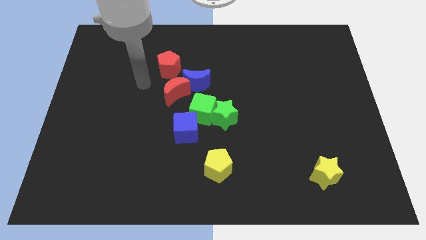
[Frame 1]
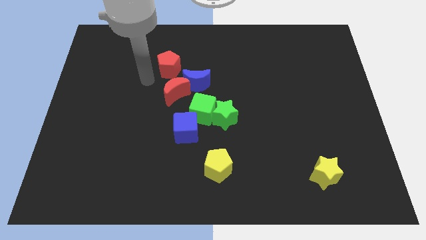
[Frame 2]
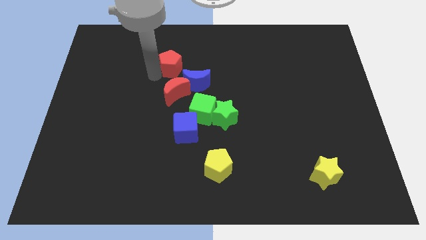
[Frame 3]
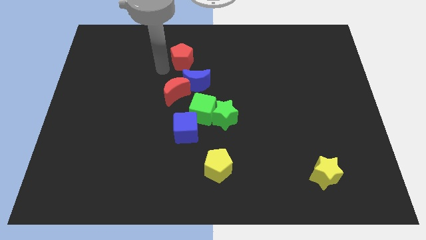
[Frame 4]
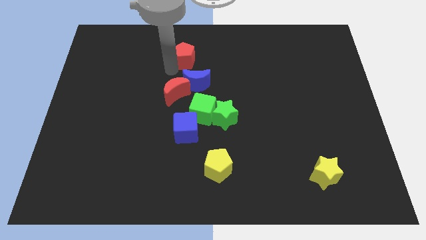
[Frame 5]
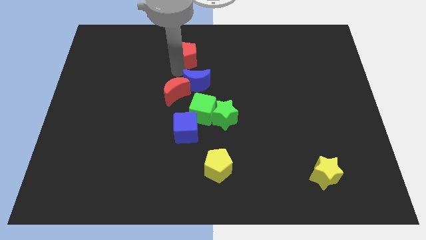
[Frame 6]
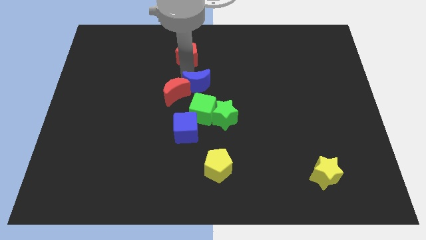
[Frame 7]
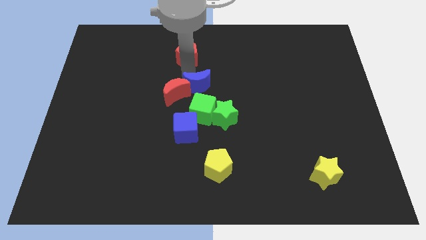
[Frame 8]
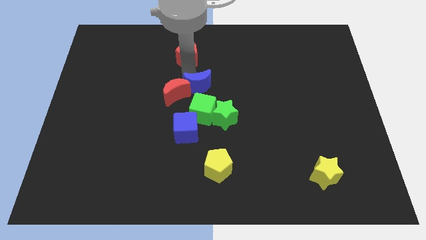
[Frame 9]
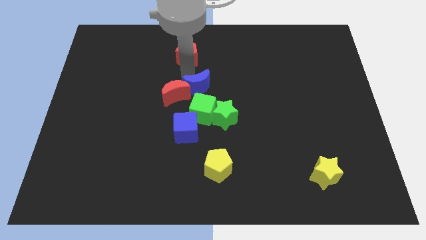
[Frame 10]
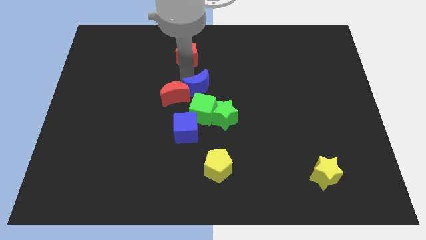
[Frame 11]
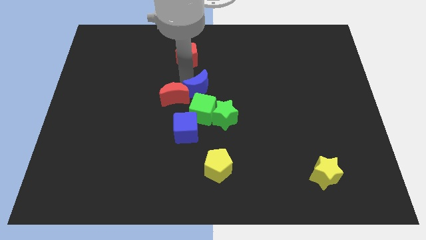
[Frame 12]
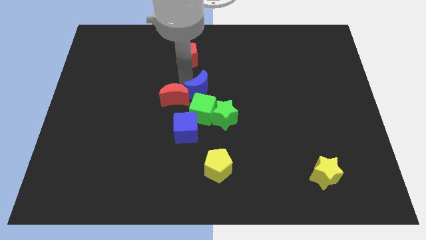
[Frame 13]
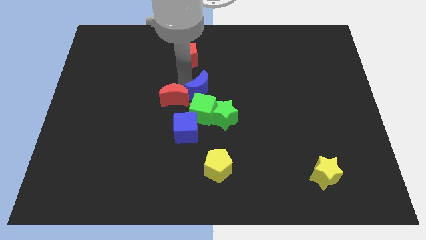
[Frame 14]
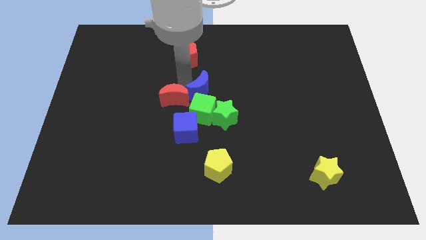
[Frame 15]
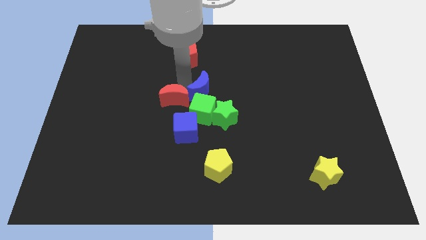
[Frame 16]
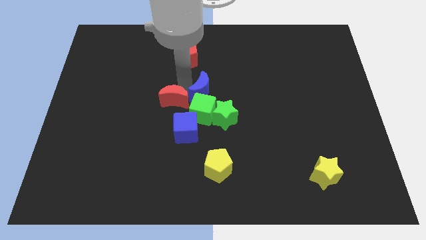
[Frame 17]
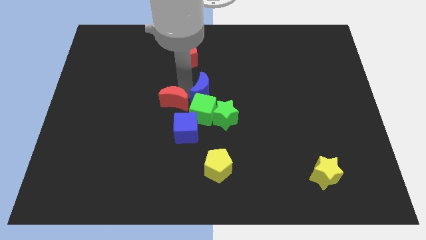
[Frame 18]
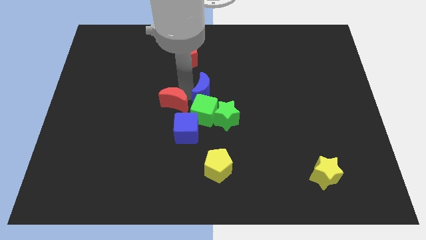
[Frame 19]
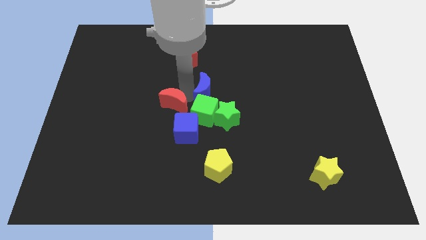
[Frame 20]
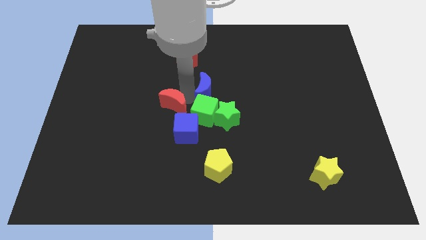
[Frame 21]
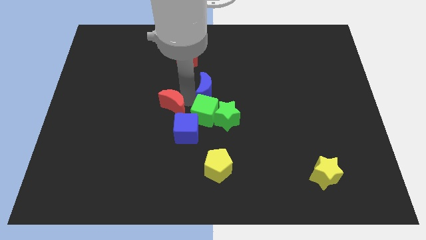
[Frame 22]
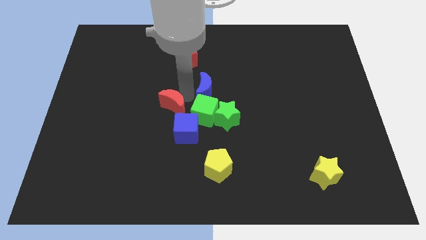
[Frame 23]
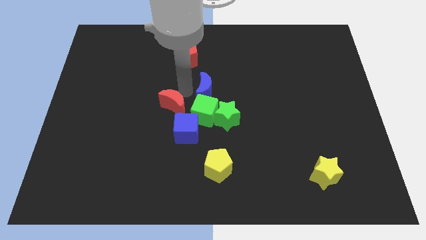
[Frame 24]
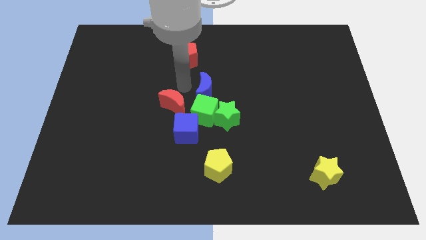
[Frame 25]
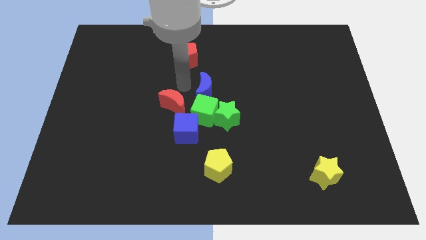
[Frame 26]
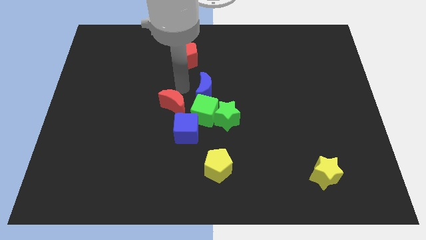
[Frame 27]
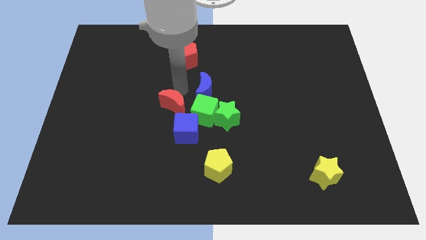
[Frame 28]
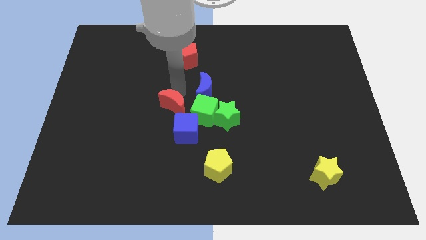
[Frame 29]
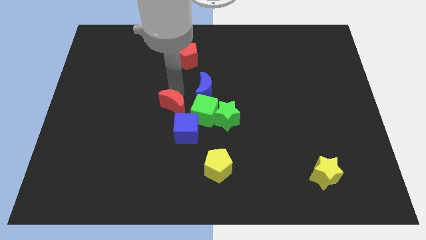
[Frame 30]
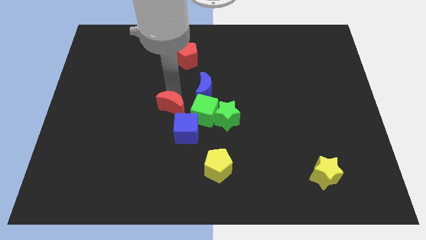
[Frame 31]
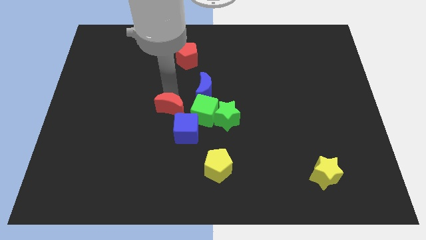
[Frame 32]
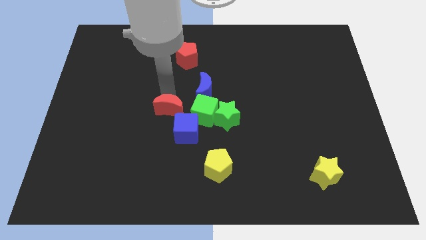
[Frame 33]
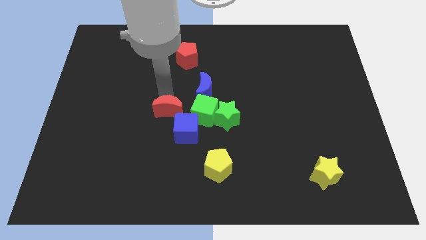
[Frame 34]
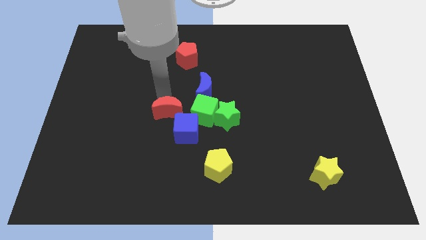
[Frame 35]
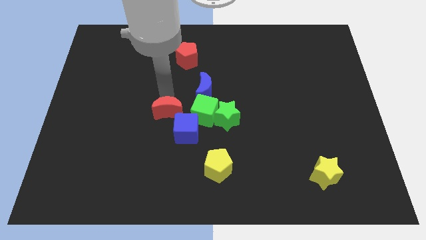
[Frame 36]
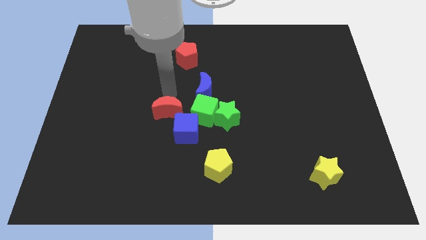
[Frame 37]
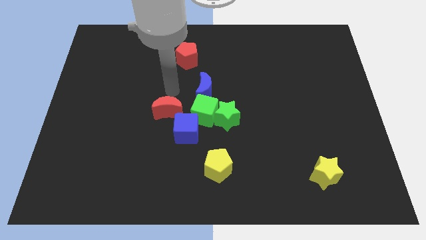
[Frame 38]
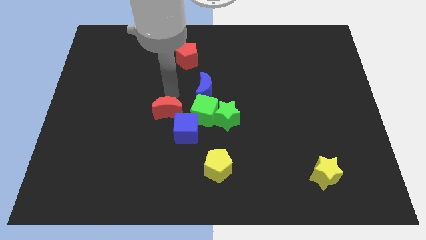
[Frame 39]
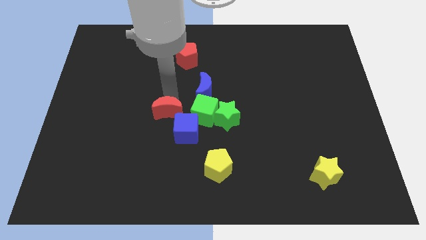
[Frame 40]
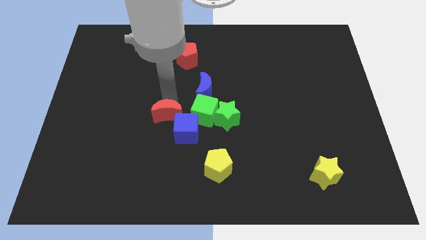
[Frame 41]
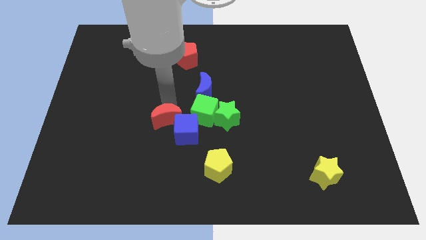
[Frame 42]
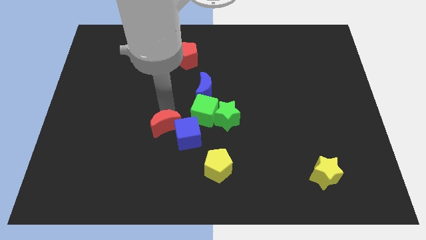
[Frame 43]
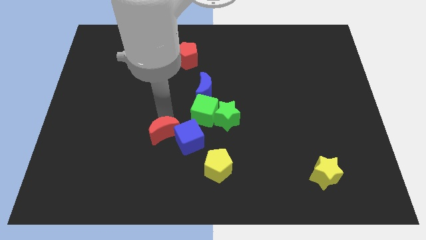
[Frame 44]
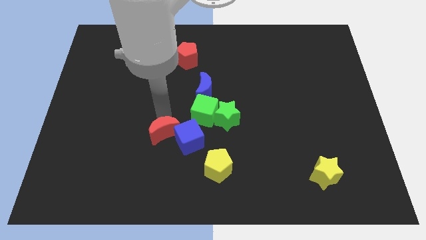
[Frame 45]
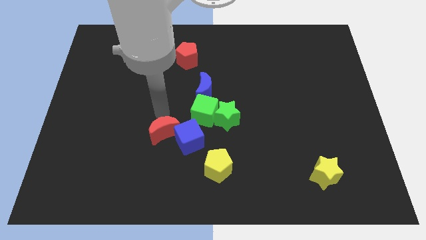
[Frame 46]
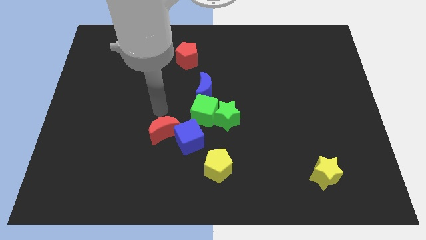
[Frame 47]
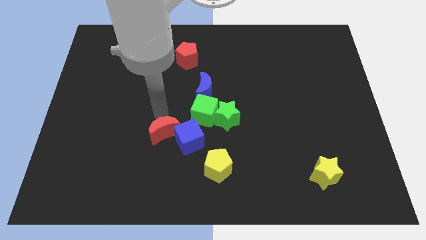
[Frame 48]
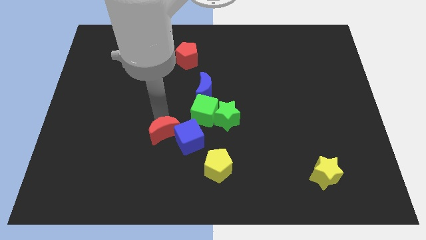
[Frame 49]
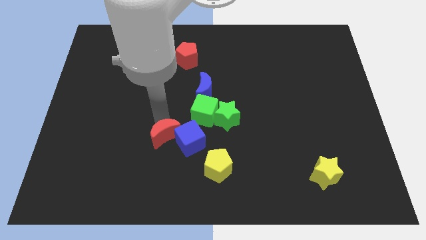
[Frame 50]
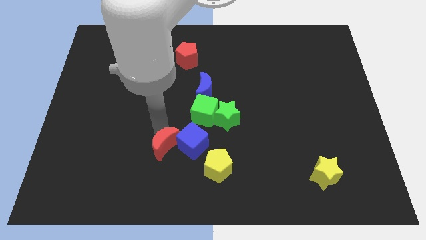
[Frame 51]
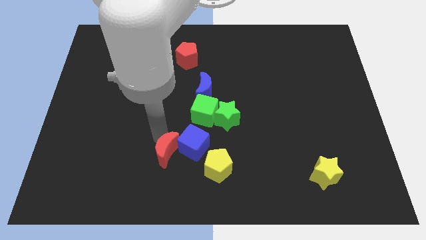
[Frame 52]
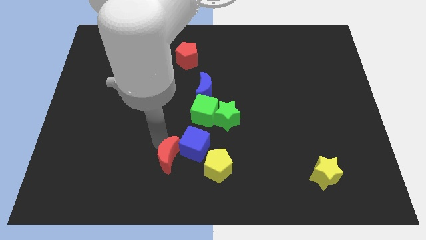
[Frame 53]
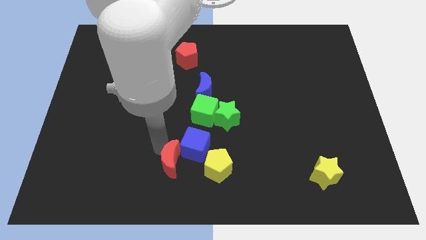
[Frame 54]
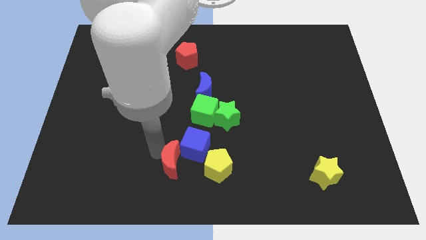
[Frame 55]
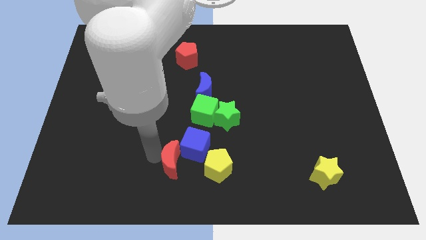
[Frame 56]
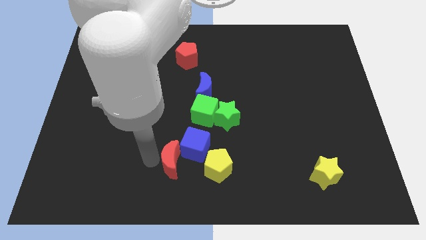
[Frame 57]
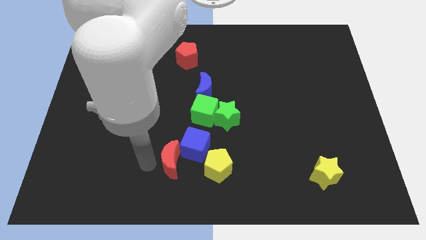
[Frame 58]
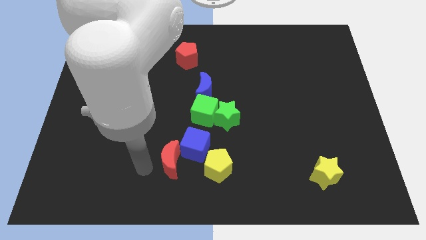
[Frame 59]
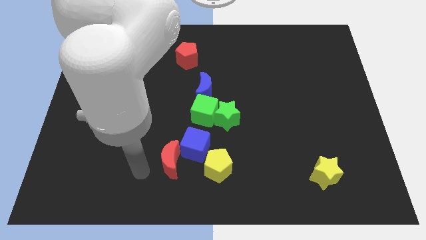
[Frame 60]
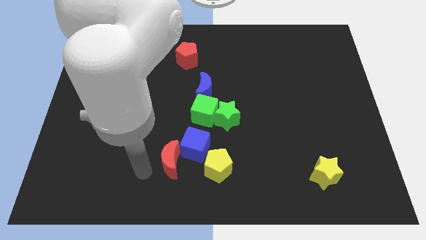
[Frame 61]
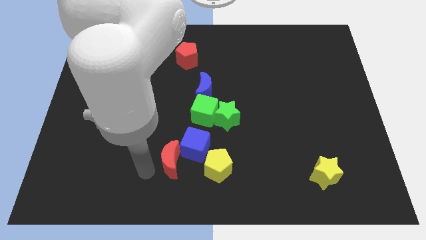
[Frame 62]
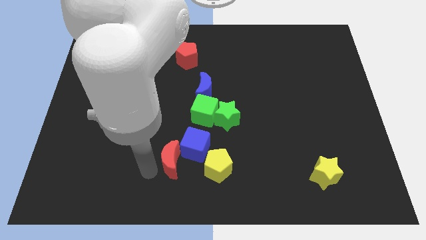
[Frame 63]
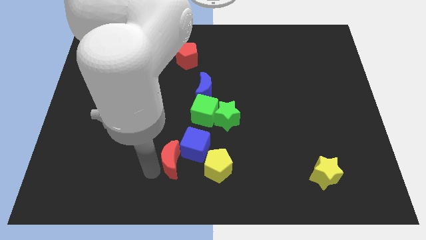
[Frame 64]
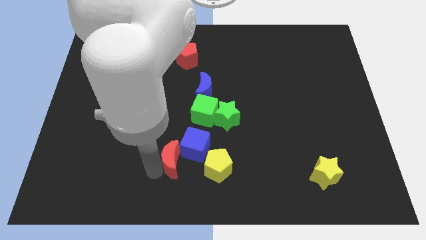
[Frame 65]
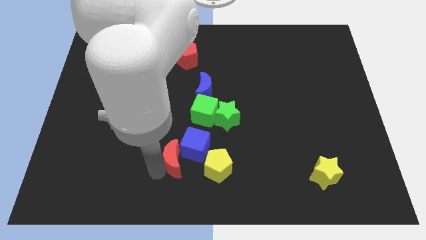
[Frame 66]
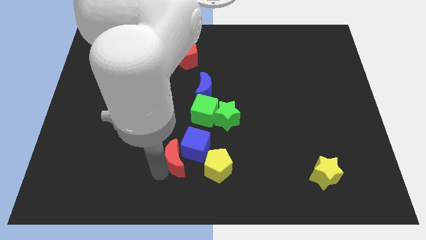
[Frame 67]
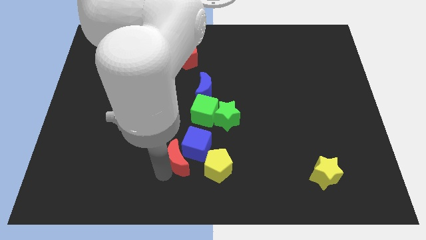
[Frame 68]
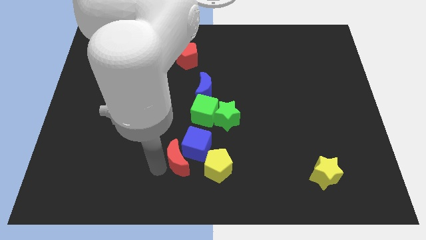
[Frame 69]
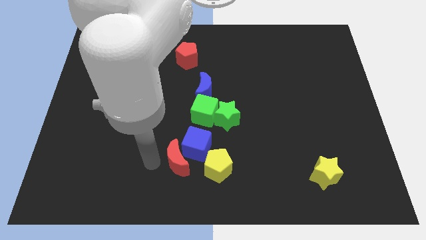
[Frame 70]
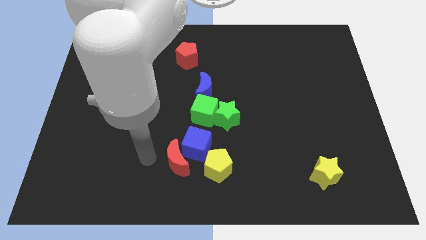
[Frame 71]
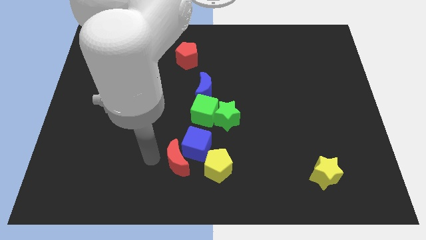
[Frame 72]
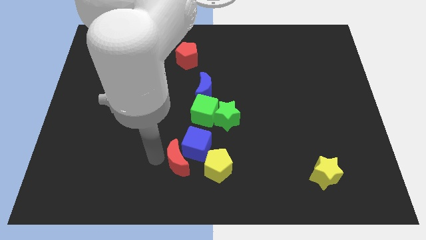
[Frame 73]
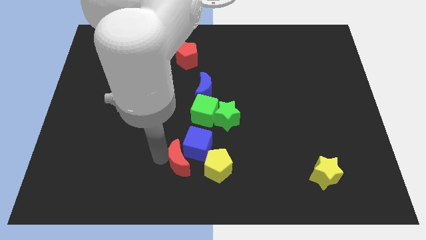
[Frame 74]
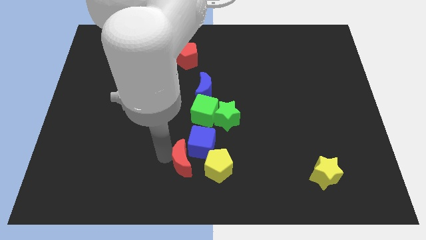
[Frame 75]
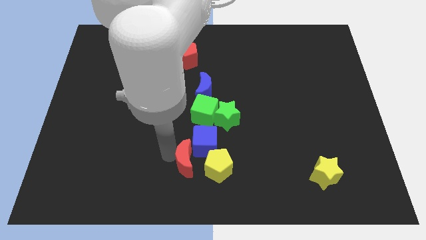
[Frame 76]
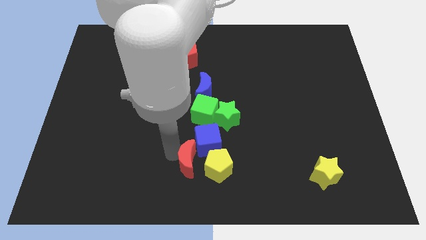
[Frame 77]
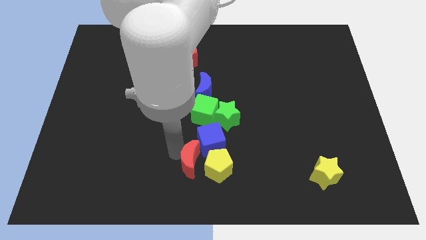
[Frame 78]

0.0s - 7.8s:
slide the red moon next to the yellow pentagon
